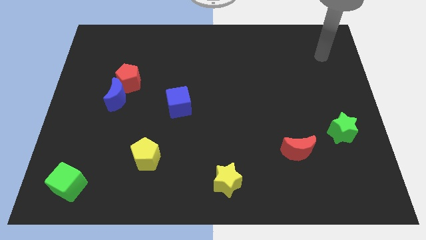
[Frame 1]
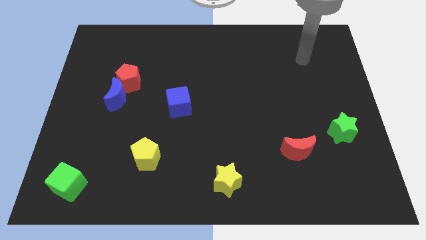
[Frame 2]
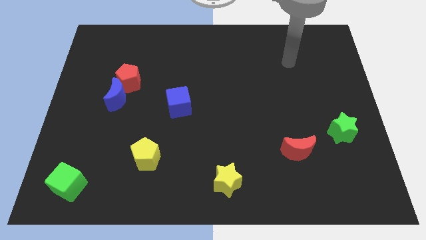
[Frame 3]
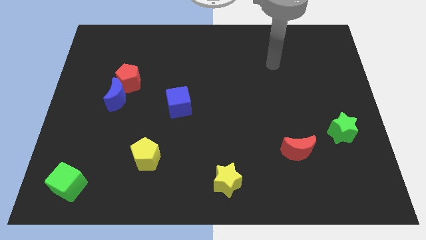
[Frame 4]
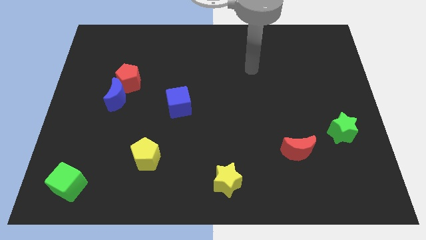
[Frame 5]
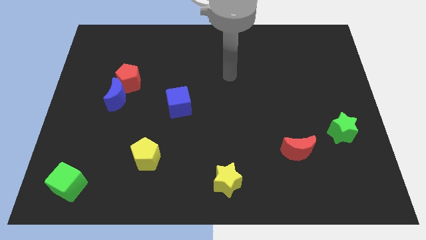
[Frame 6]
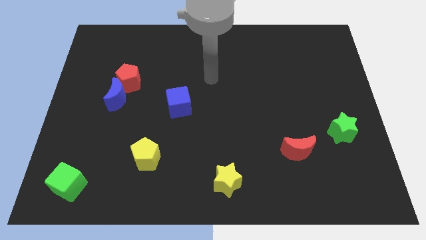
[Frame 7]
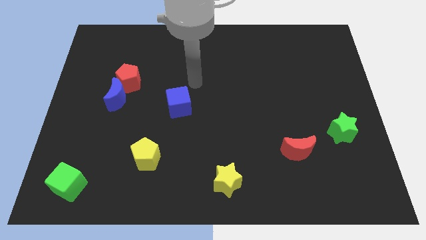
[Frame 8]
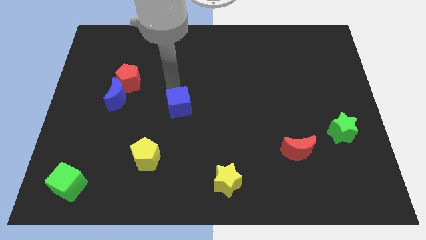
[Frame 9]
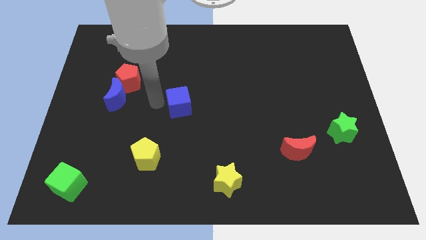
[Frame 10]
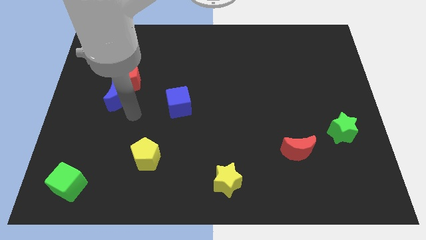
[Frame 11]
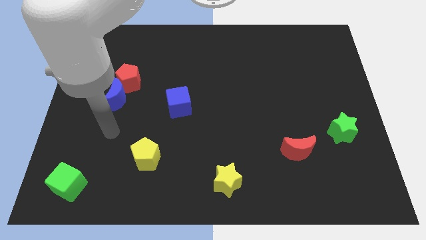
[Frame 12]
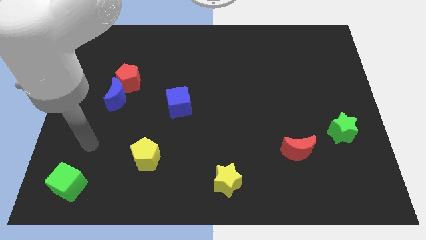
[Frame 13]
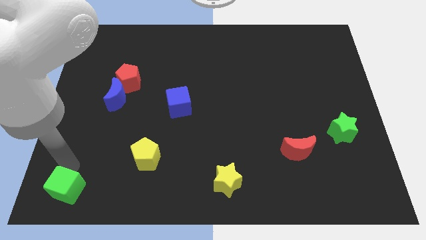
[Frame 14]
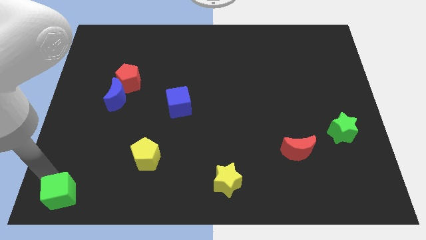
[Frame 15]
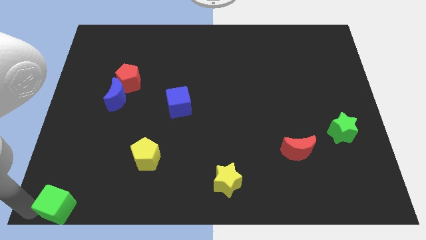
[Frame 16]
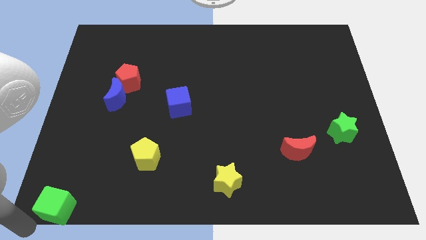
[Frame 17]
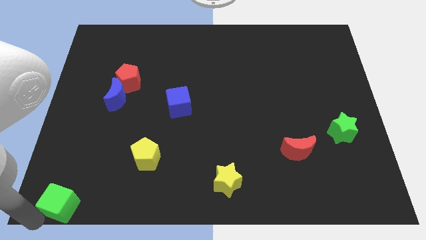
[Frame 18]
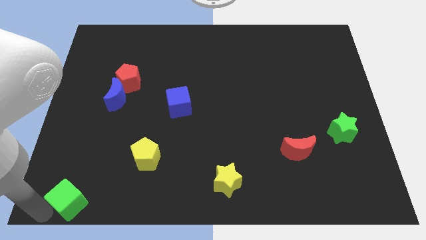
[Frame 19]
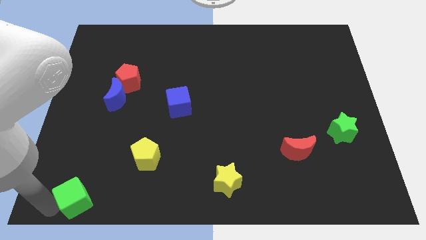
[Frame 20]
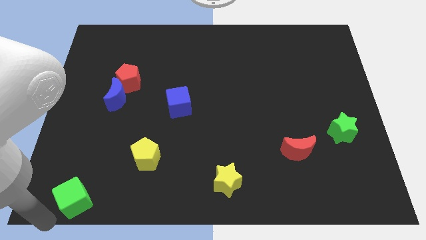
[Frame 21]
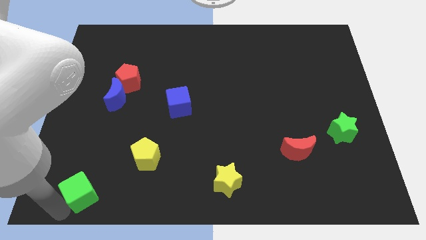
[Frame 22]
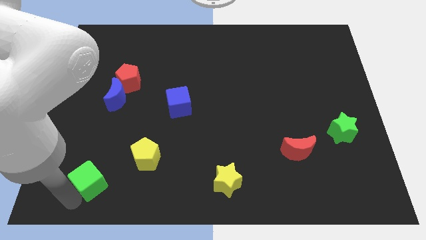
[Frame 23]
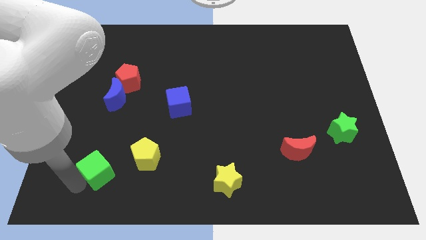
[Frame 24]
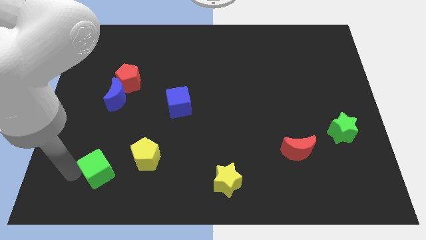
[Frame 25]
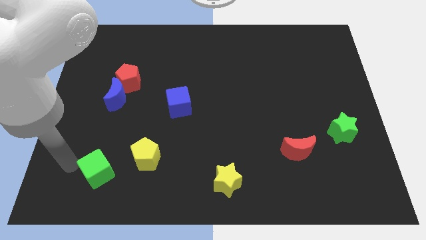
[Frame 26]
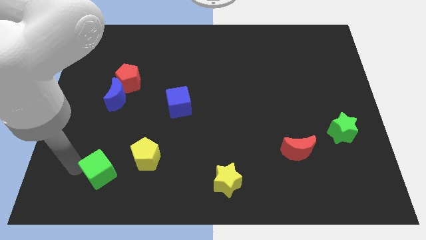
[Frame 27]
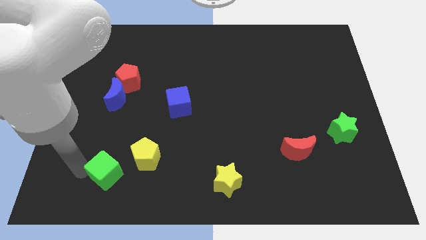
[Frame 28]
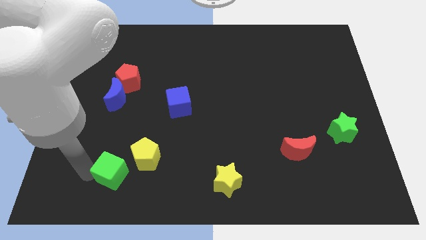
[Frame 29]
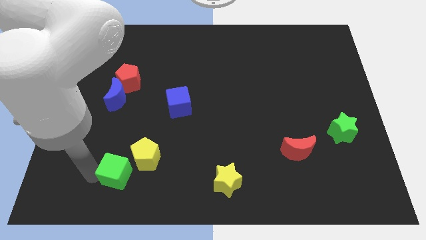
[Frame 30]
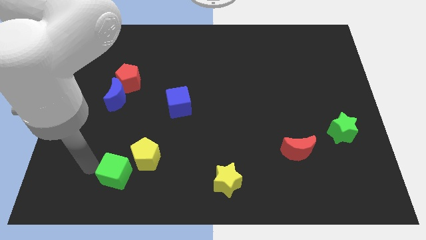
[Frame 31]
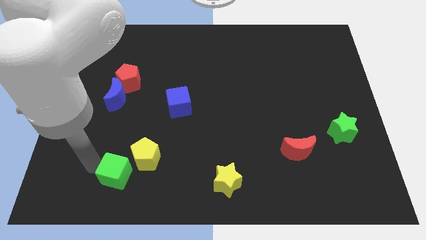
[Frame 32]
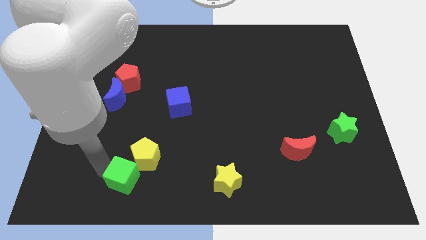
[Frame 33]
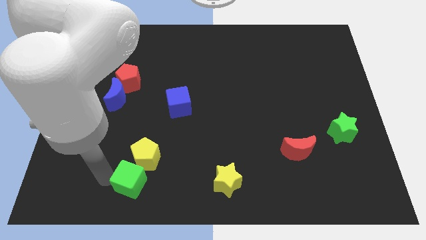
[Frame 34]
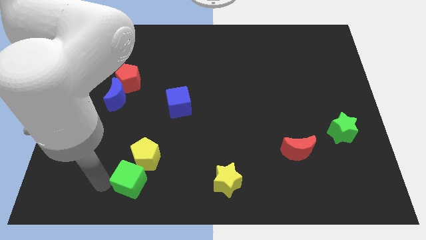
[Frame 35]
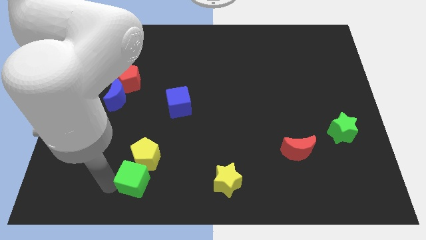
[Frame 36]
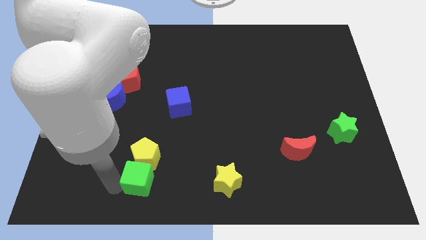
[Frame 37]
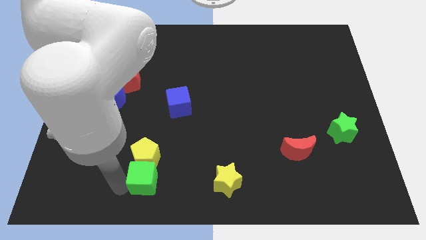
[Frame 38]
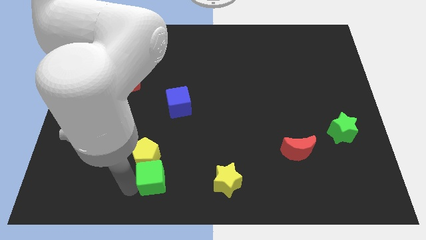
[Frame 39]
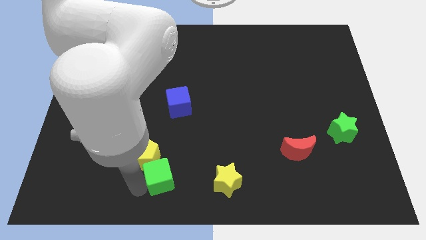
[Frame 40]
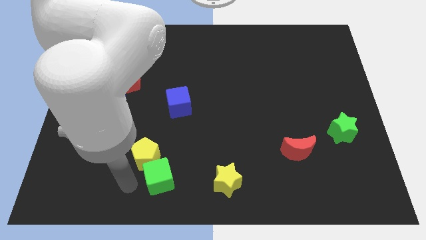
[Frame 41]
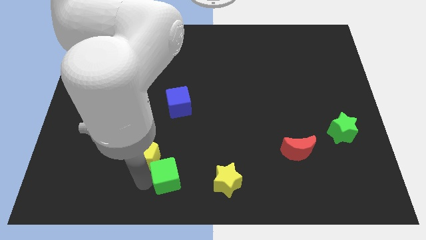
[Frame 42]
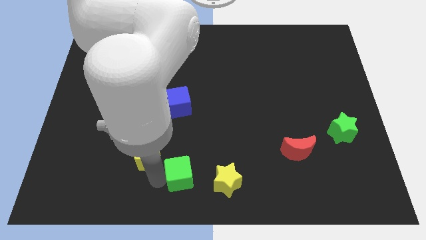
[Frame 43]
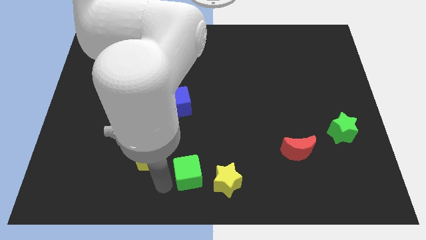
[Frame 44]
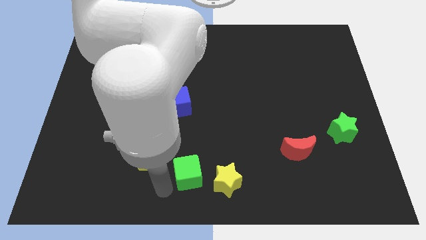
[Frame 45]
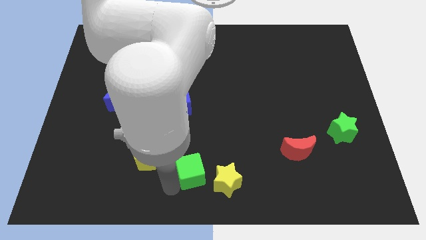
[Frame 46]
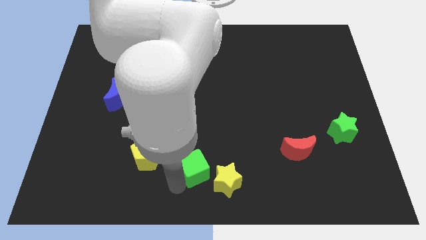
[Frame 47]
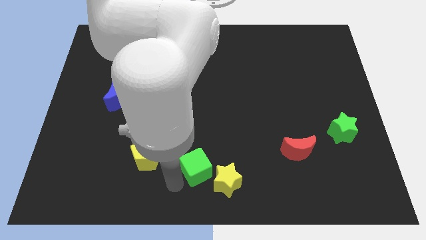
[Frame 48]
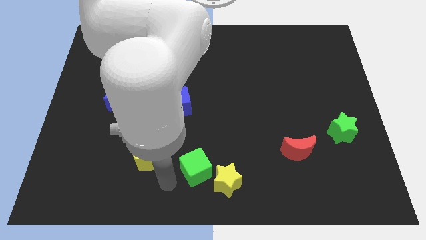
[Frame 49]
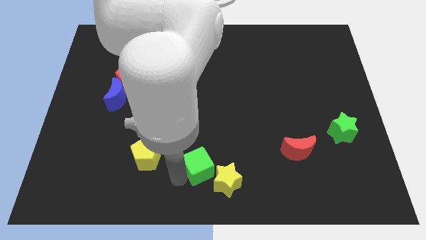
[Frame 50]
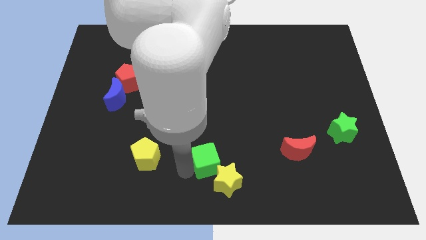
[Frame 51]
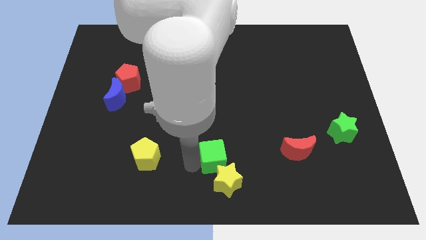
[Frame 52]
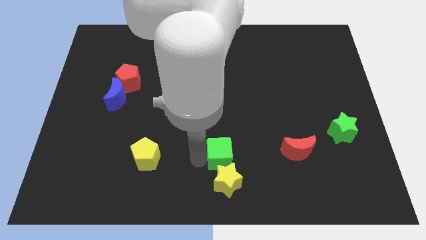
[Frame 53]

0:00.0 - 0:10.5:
move the green cube to the top right side of the yellow star

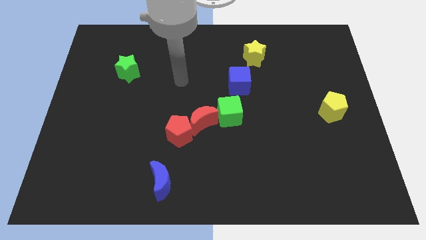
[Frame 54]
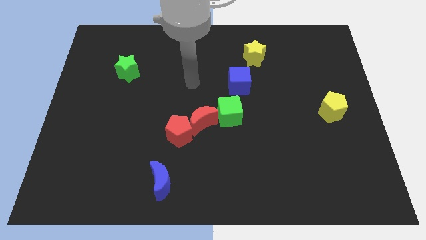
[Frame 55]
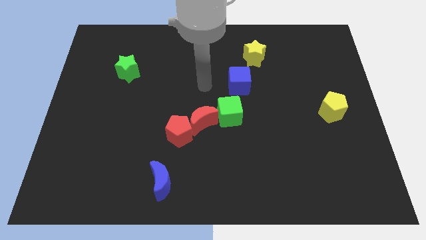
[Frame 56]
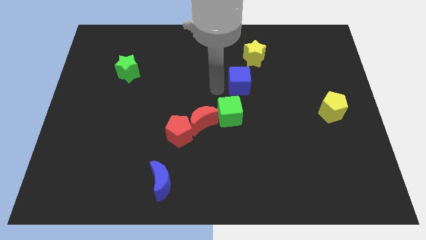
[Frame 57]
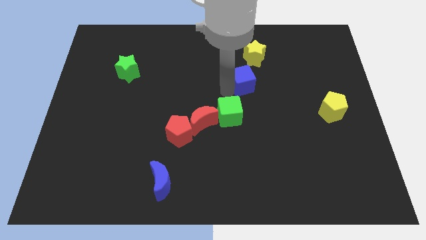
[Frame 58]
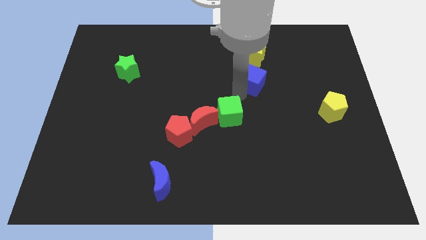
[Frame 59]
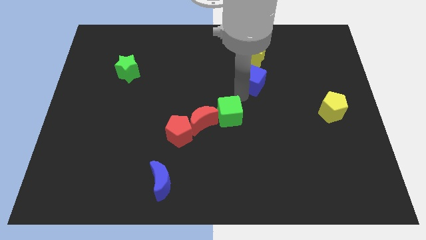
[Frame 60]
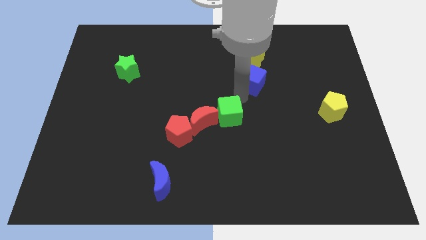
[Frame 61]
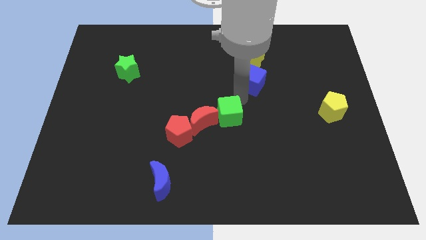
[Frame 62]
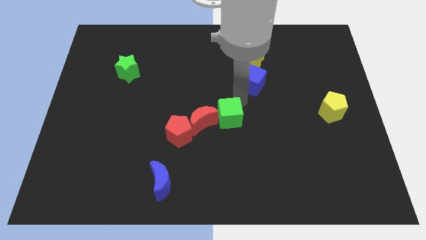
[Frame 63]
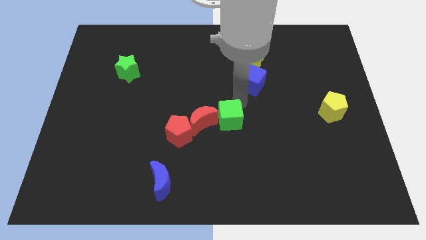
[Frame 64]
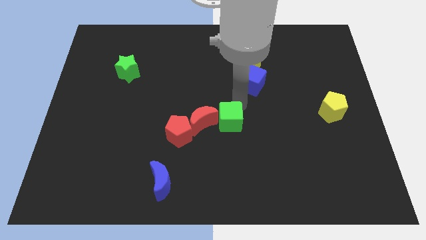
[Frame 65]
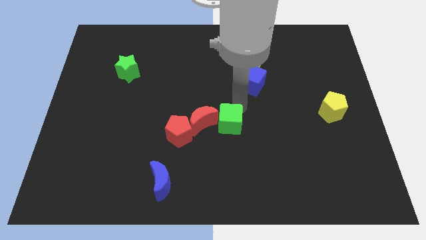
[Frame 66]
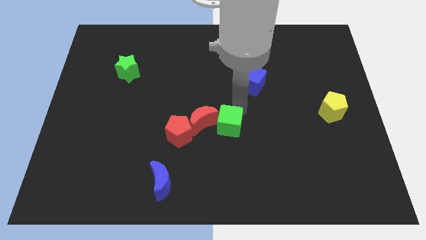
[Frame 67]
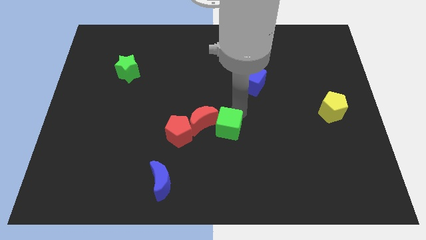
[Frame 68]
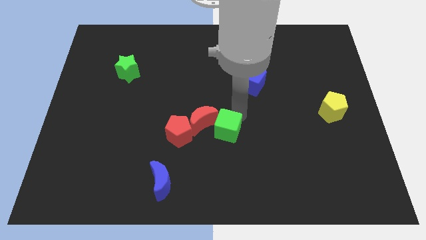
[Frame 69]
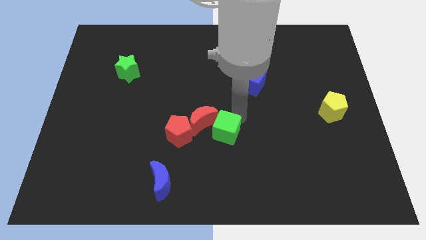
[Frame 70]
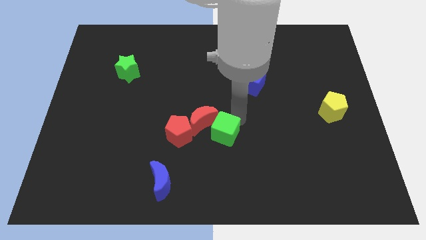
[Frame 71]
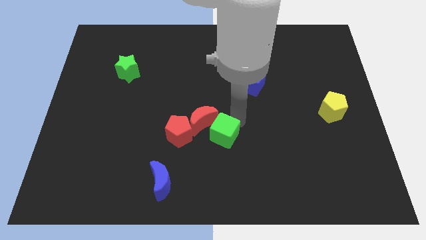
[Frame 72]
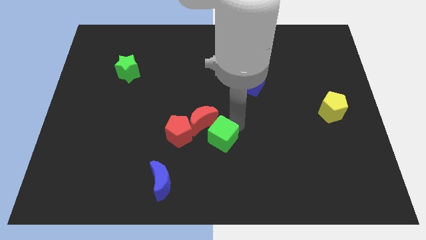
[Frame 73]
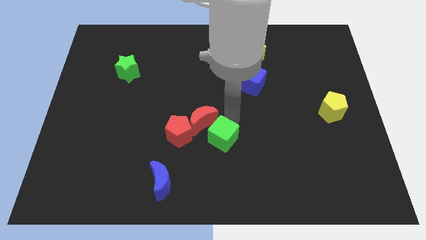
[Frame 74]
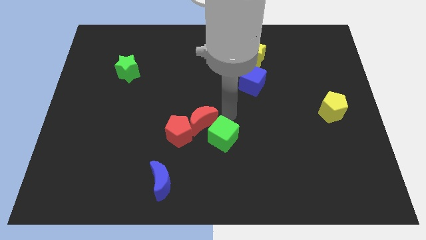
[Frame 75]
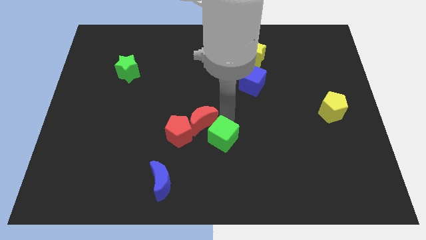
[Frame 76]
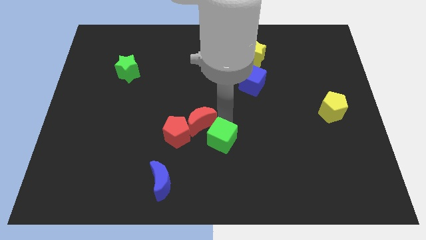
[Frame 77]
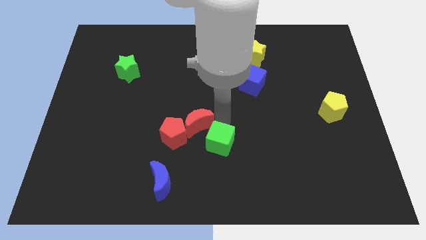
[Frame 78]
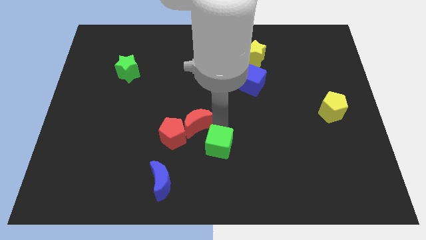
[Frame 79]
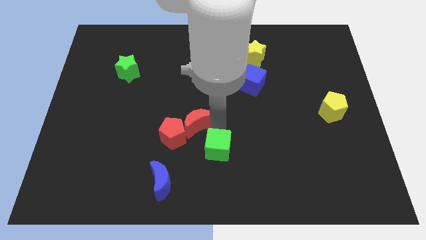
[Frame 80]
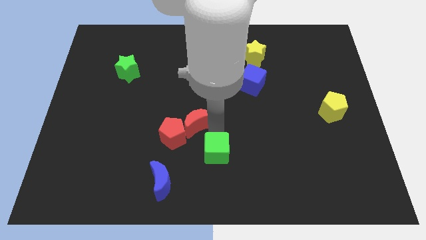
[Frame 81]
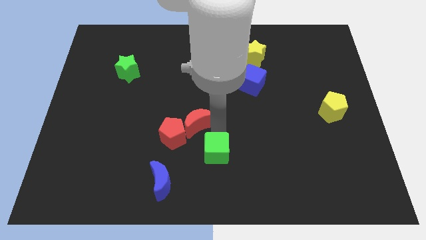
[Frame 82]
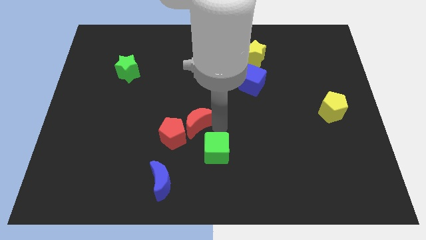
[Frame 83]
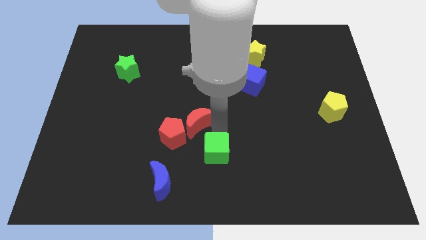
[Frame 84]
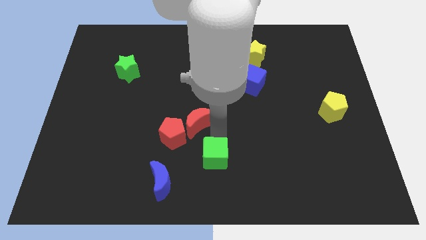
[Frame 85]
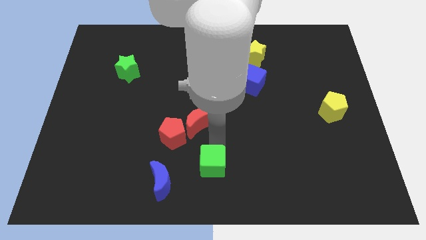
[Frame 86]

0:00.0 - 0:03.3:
move the green cube just right of the blue moon
